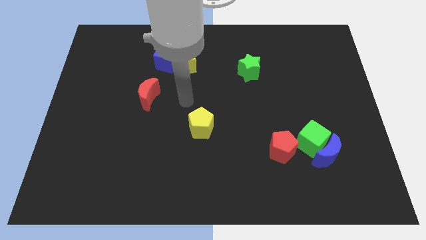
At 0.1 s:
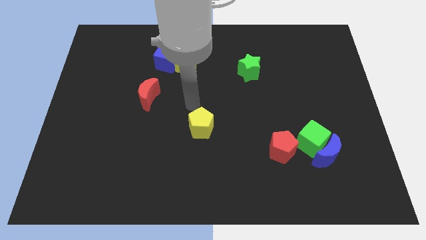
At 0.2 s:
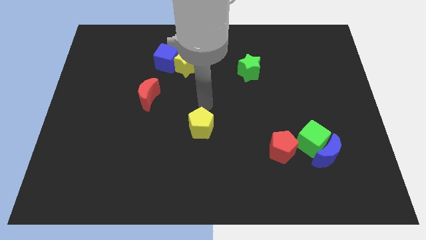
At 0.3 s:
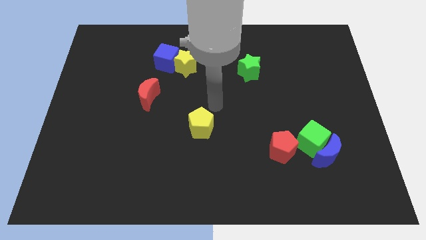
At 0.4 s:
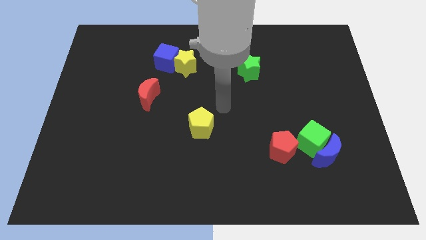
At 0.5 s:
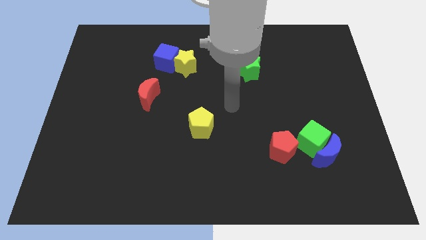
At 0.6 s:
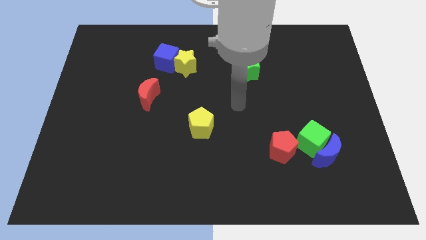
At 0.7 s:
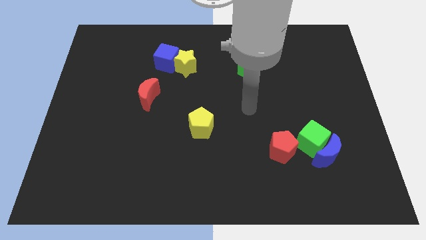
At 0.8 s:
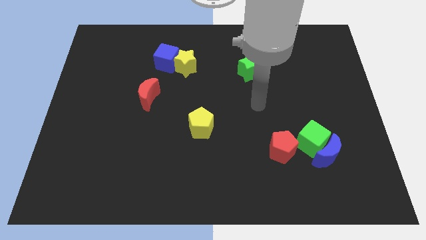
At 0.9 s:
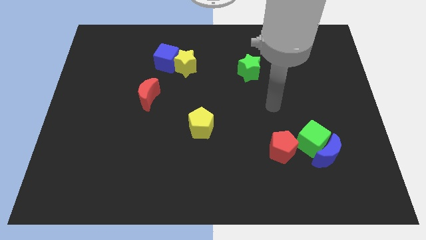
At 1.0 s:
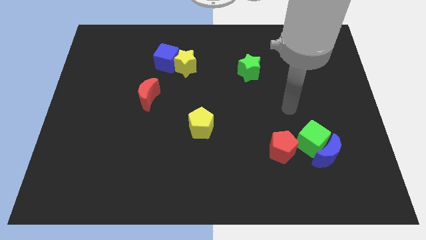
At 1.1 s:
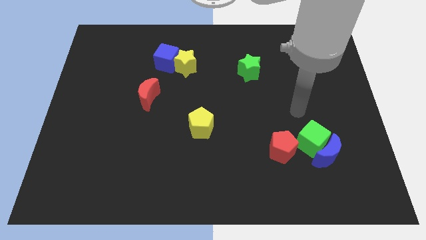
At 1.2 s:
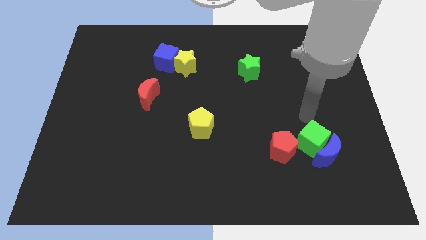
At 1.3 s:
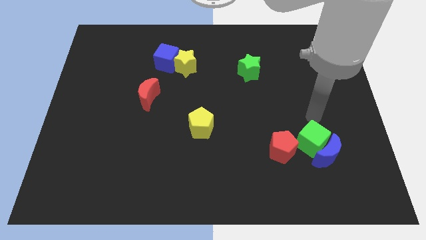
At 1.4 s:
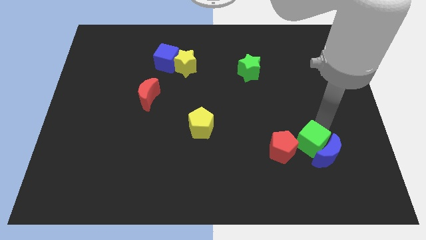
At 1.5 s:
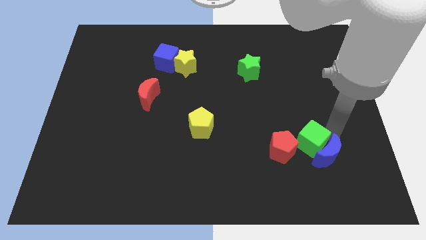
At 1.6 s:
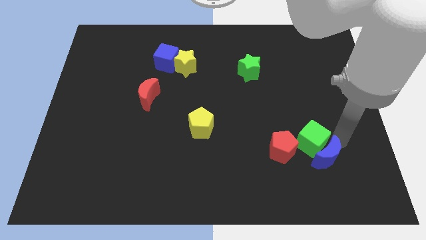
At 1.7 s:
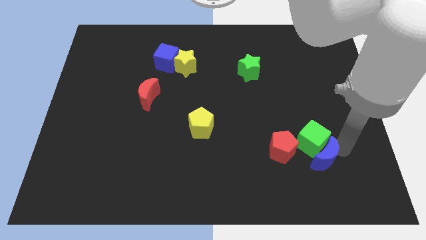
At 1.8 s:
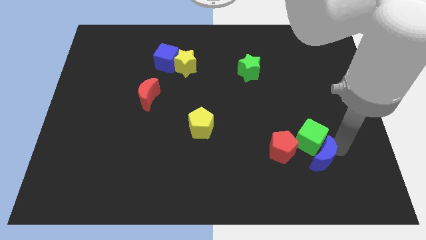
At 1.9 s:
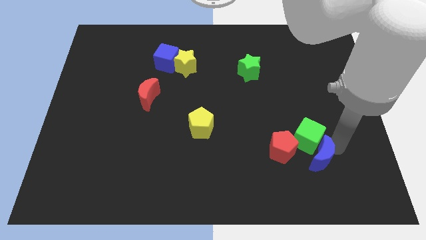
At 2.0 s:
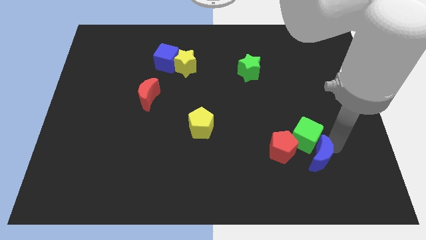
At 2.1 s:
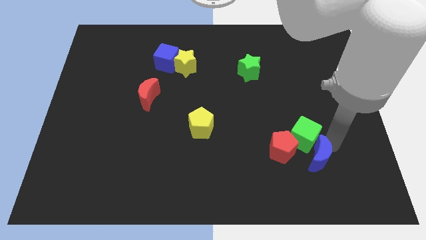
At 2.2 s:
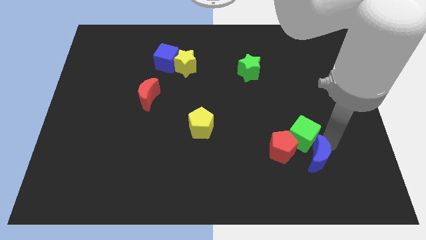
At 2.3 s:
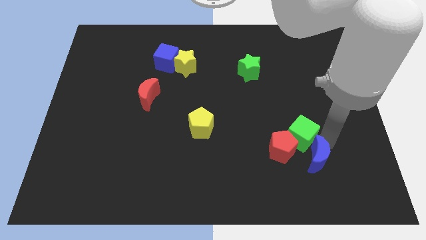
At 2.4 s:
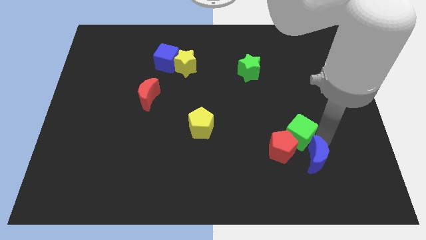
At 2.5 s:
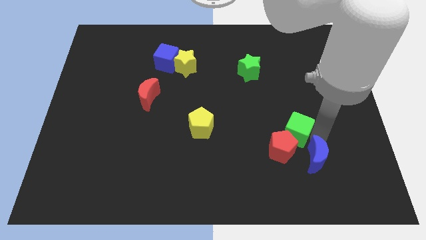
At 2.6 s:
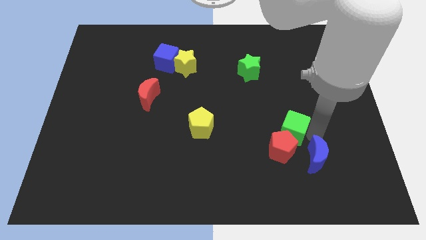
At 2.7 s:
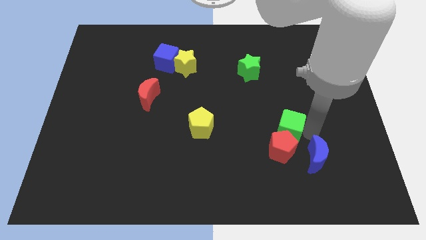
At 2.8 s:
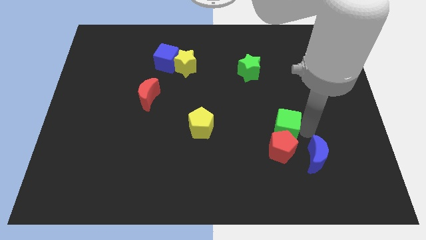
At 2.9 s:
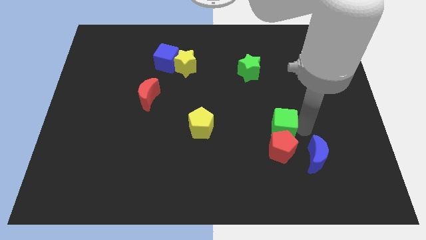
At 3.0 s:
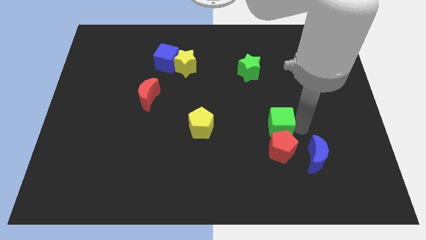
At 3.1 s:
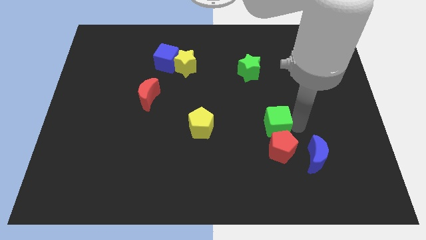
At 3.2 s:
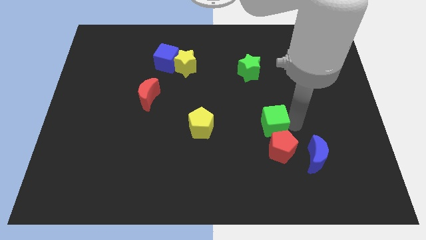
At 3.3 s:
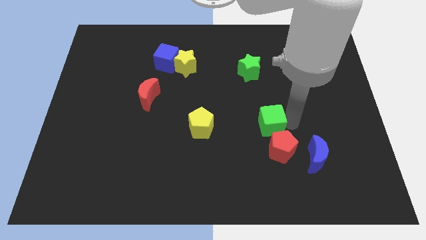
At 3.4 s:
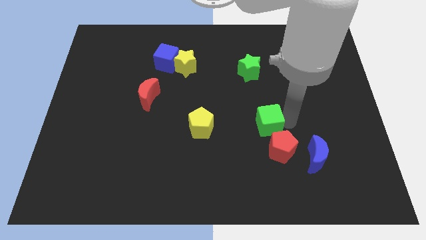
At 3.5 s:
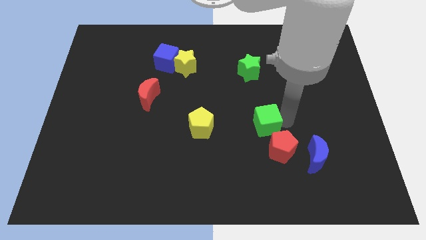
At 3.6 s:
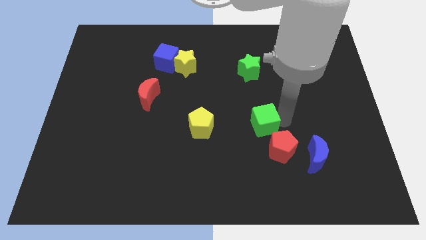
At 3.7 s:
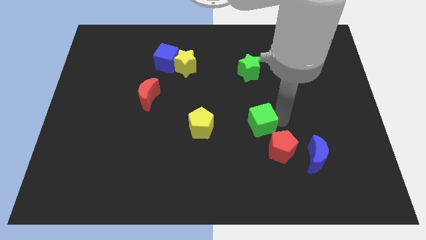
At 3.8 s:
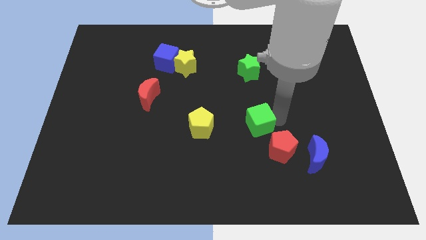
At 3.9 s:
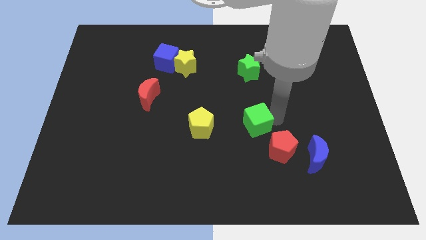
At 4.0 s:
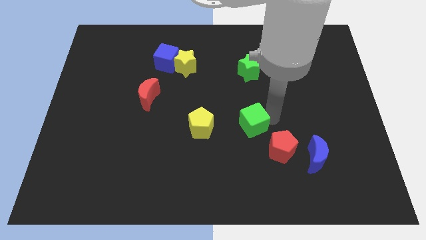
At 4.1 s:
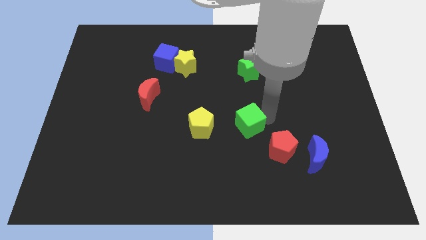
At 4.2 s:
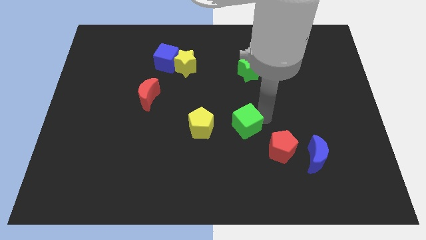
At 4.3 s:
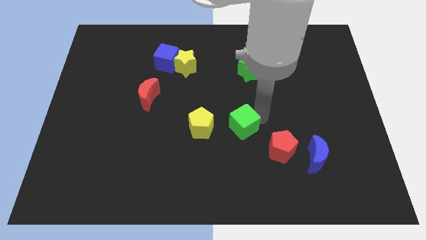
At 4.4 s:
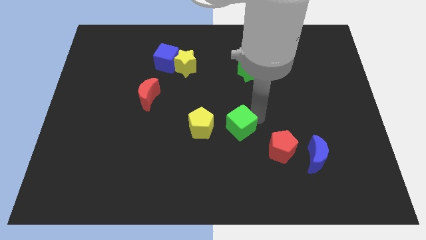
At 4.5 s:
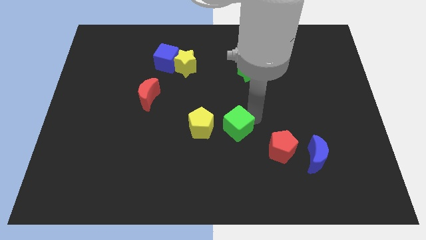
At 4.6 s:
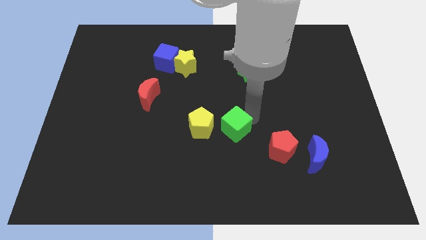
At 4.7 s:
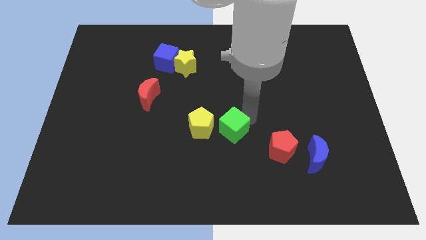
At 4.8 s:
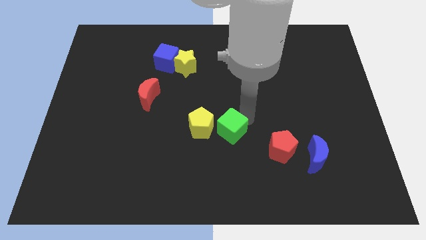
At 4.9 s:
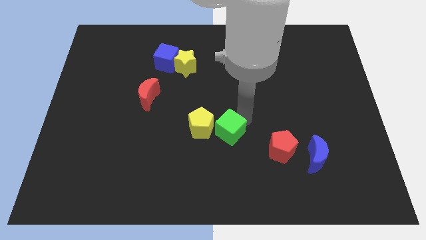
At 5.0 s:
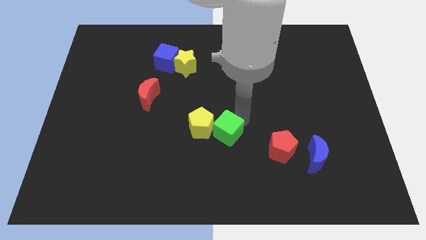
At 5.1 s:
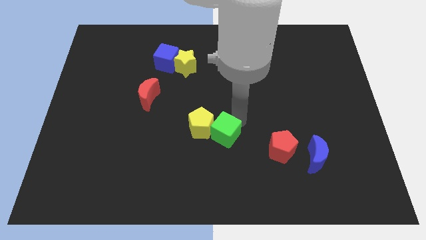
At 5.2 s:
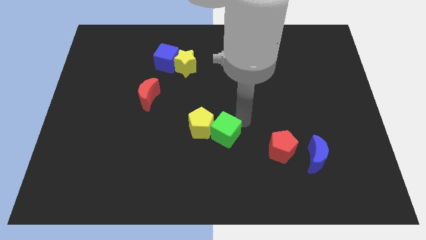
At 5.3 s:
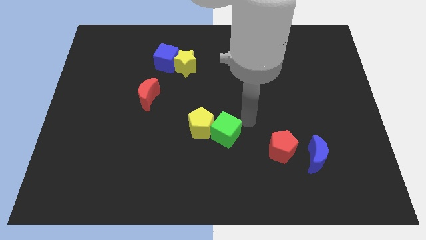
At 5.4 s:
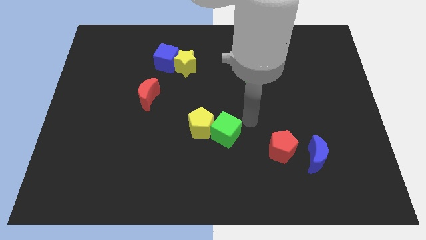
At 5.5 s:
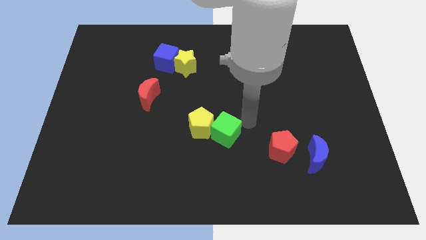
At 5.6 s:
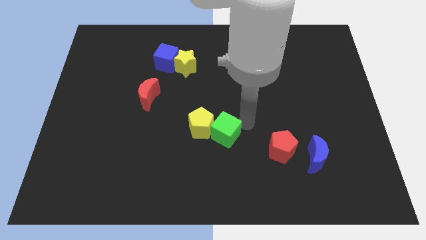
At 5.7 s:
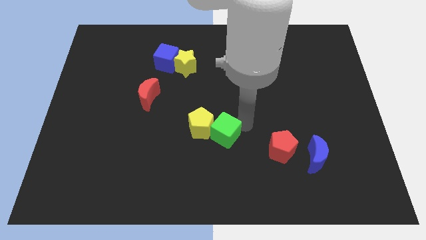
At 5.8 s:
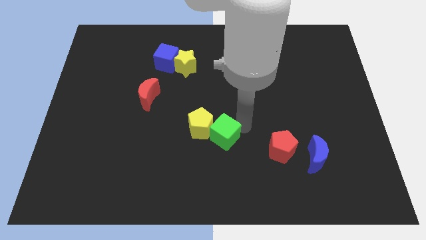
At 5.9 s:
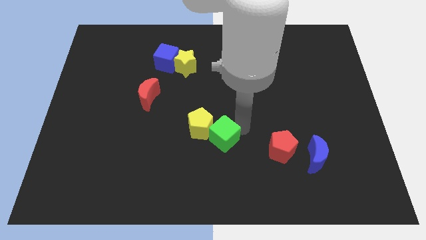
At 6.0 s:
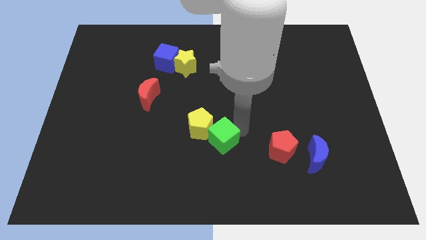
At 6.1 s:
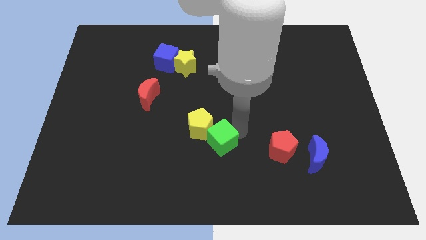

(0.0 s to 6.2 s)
push the green cube left

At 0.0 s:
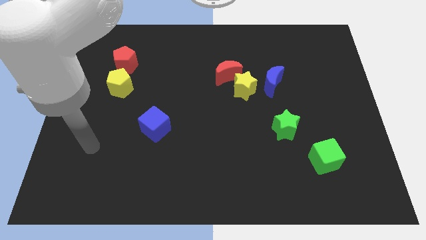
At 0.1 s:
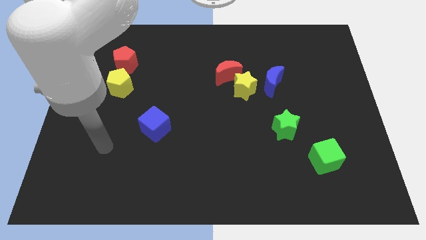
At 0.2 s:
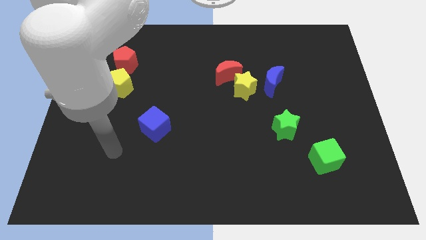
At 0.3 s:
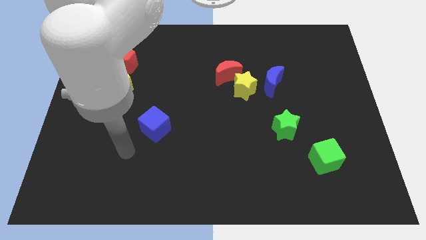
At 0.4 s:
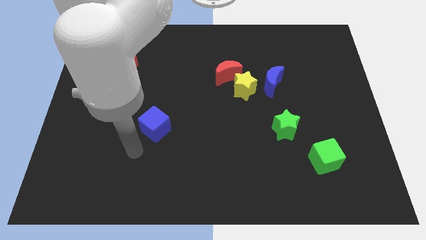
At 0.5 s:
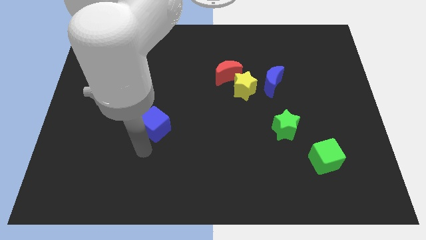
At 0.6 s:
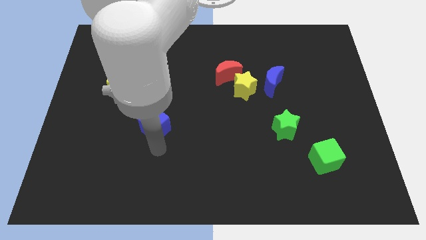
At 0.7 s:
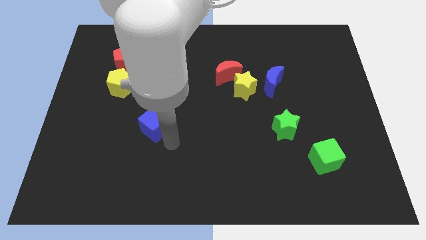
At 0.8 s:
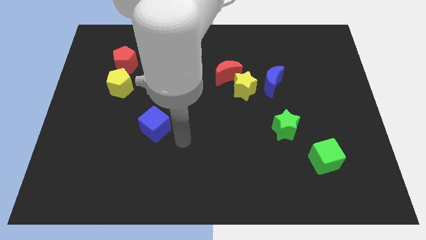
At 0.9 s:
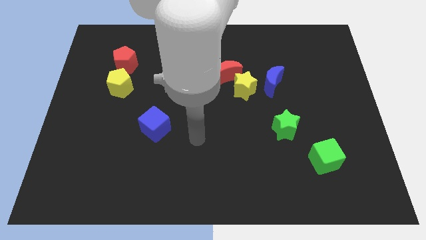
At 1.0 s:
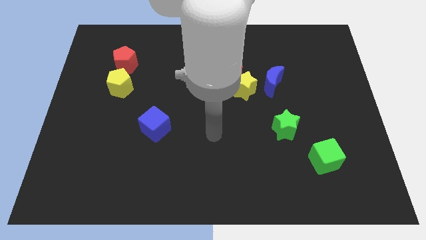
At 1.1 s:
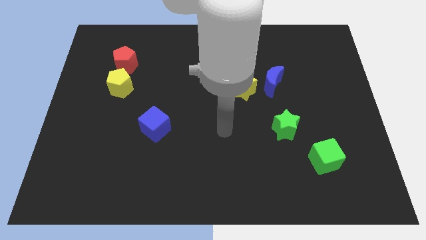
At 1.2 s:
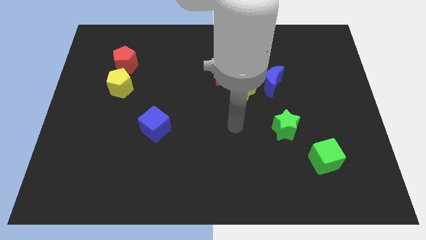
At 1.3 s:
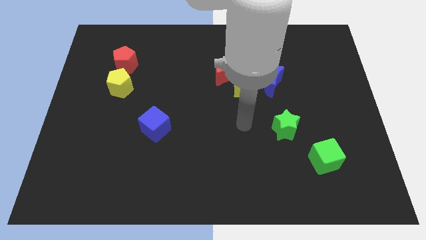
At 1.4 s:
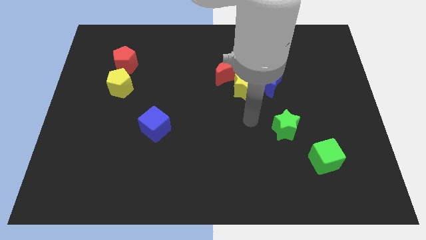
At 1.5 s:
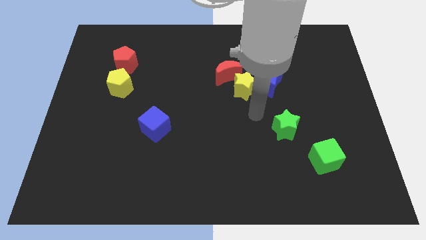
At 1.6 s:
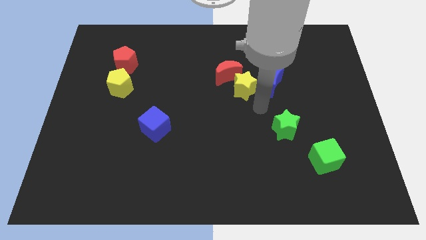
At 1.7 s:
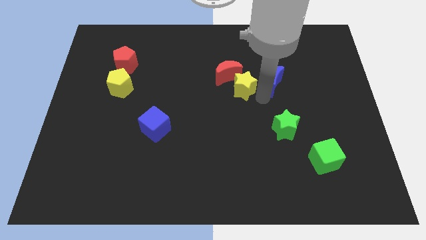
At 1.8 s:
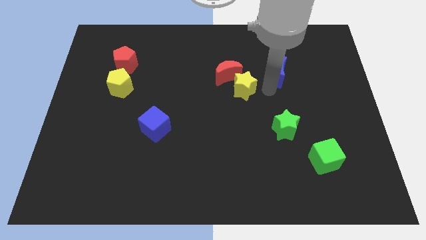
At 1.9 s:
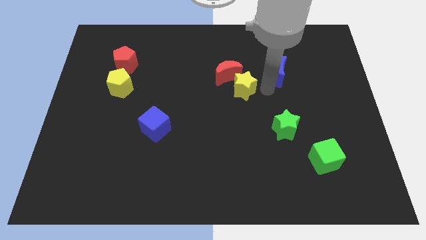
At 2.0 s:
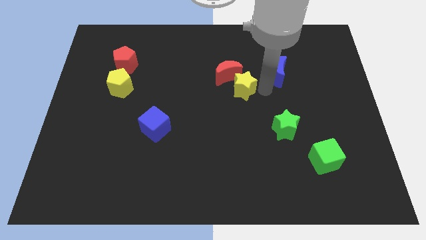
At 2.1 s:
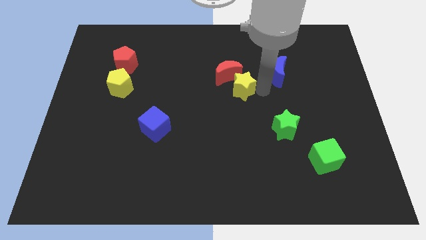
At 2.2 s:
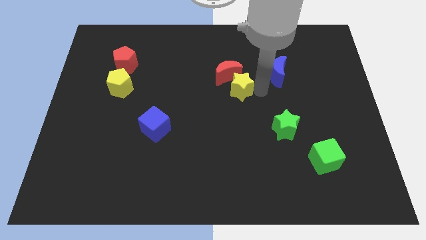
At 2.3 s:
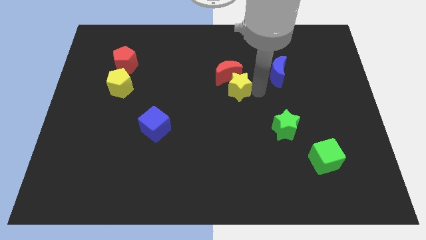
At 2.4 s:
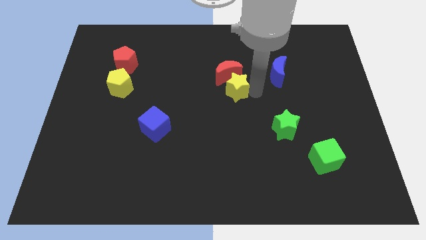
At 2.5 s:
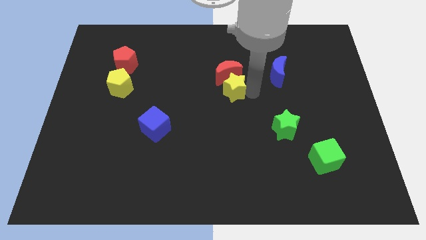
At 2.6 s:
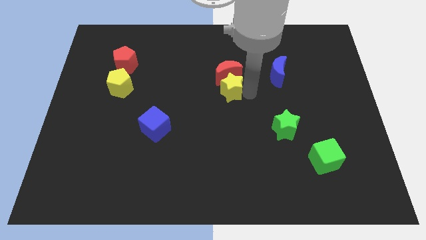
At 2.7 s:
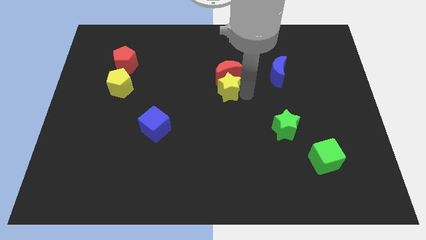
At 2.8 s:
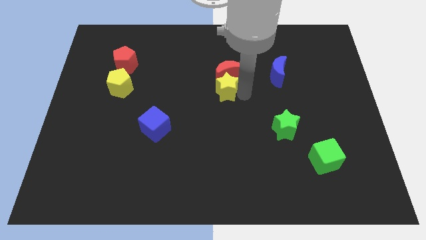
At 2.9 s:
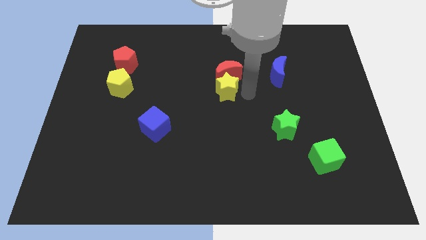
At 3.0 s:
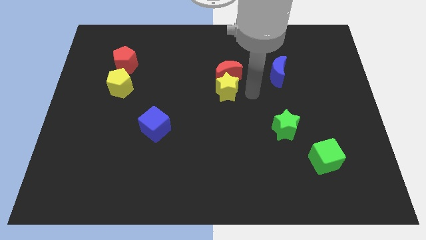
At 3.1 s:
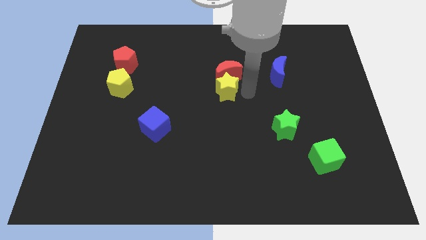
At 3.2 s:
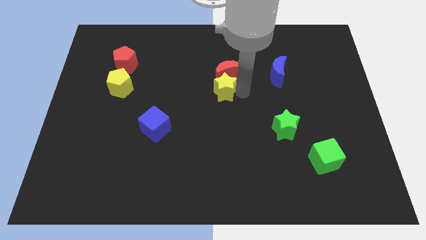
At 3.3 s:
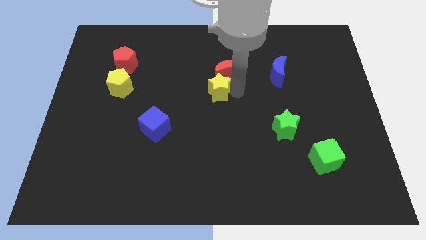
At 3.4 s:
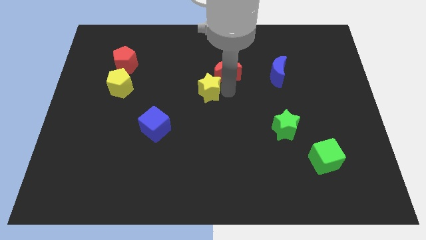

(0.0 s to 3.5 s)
slightly slide the yellow star left
